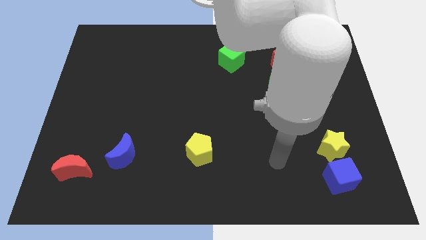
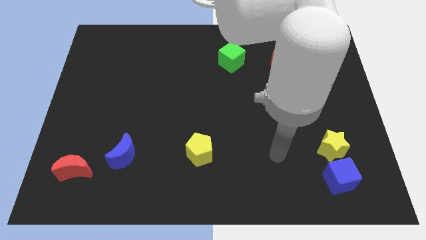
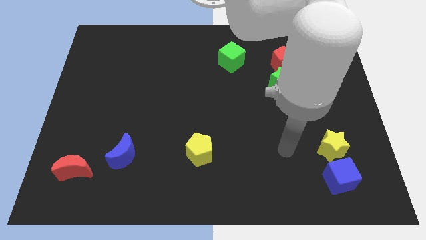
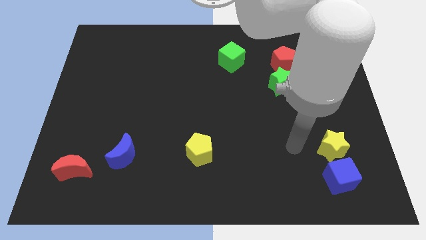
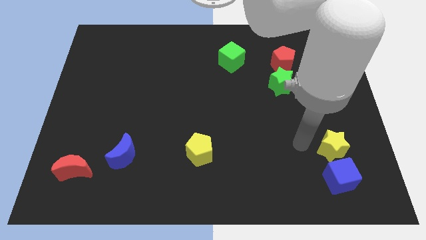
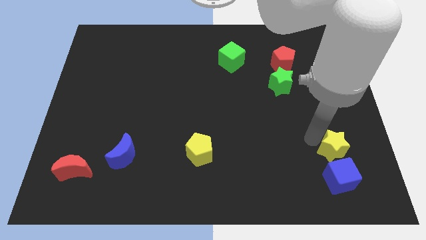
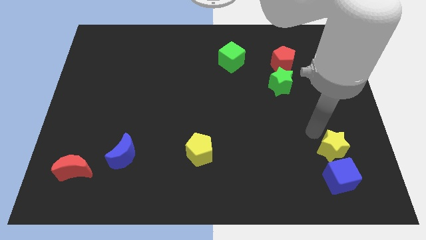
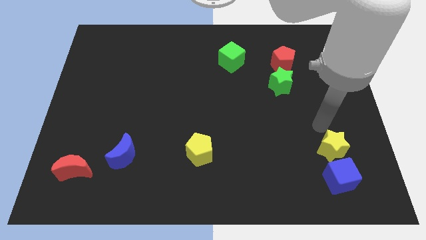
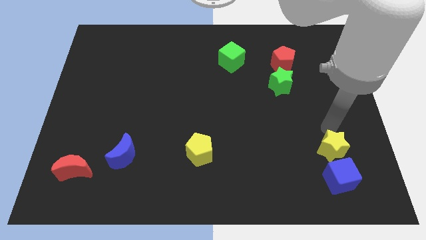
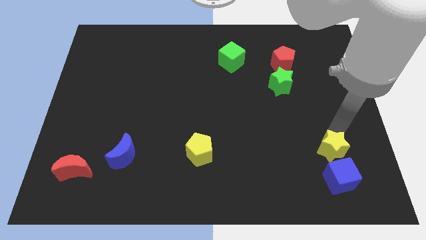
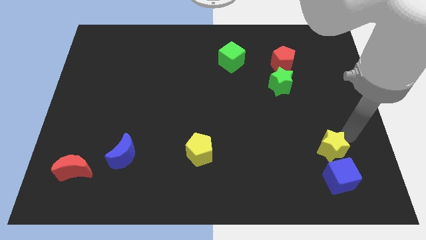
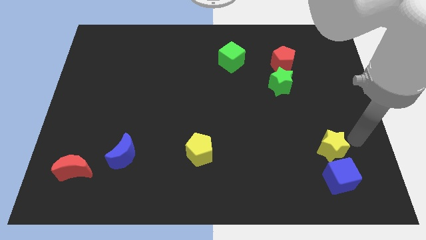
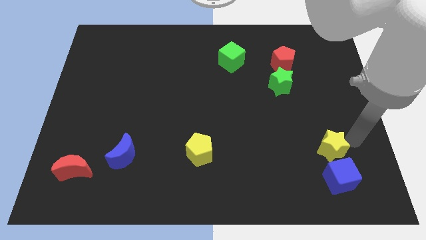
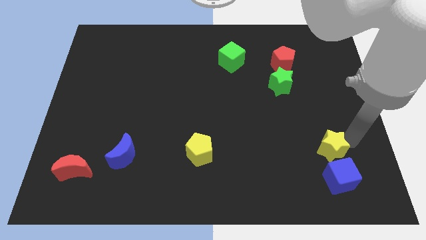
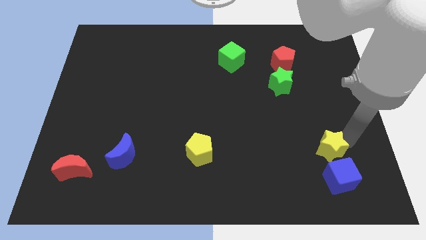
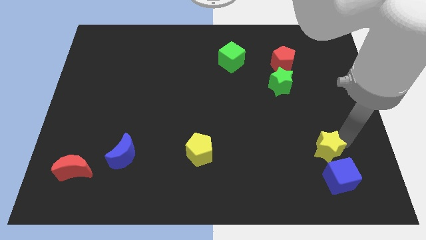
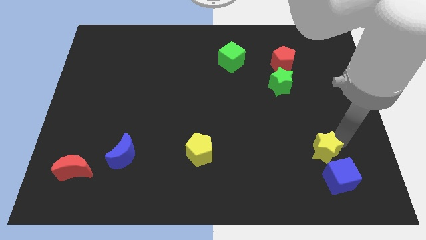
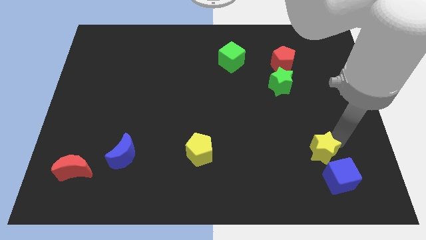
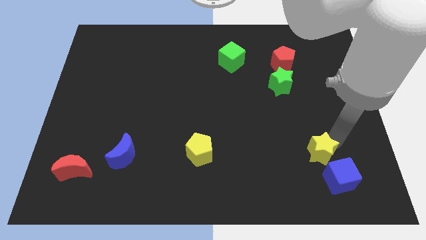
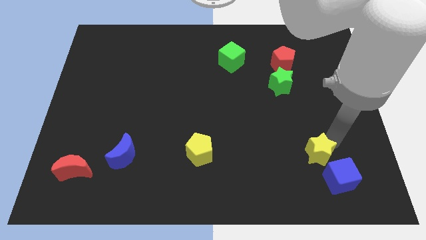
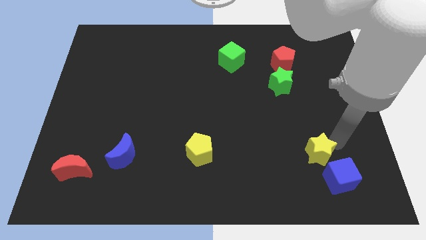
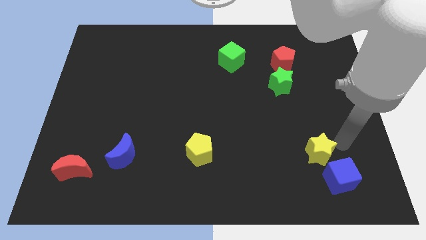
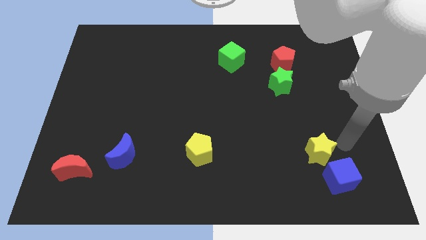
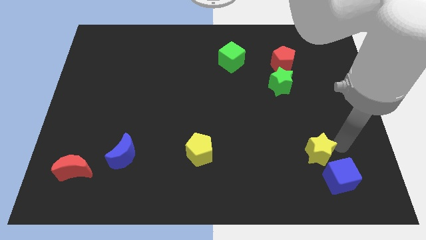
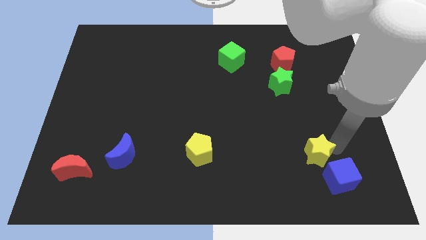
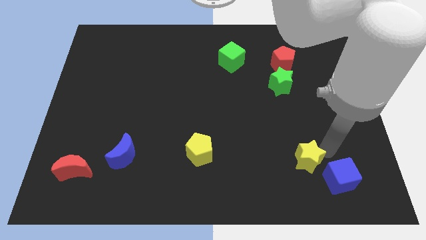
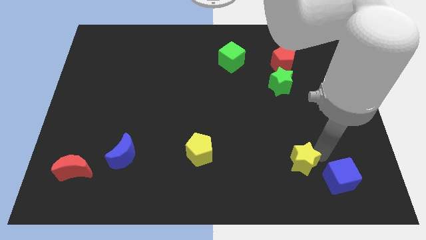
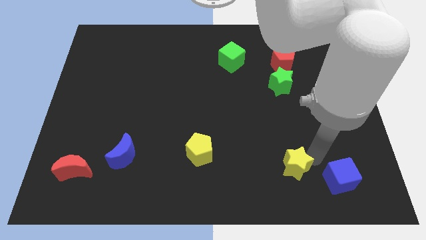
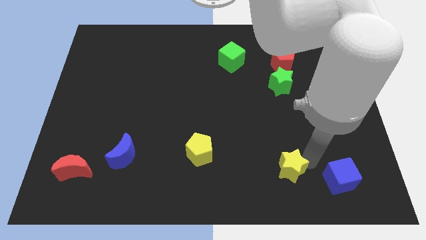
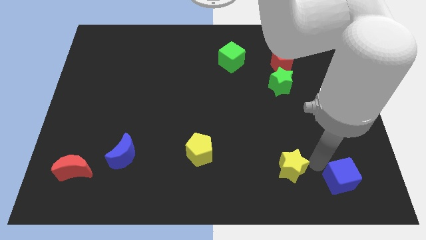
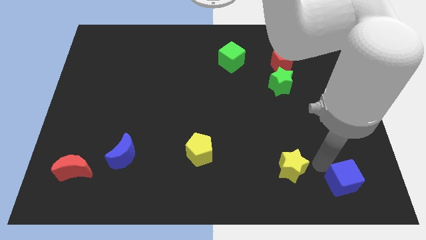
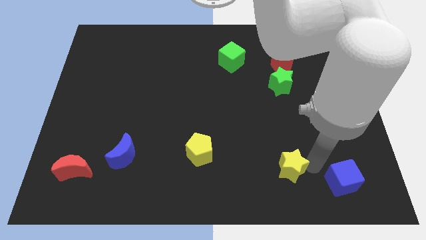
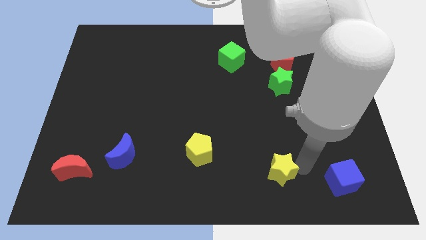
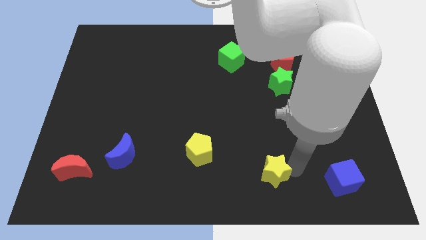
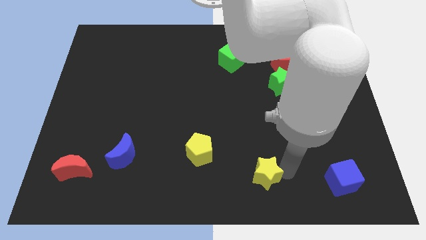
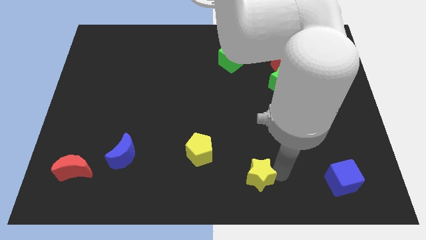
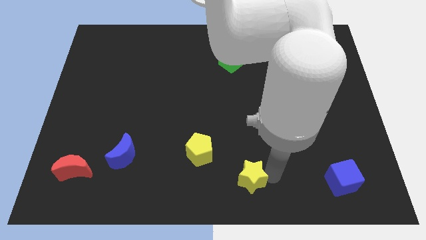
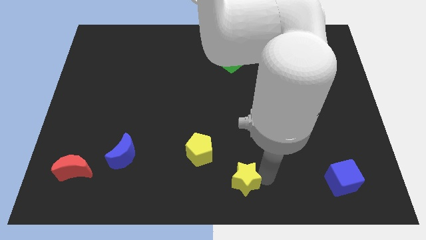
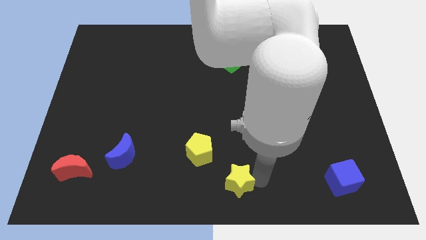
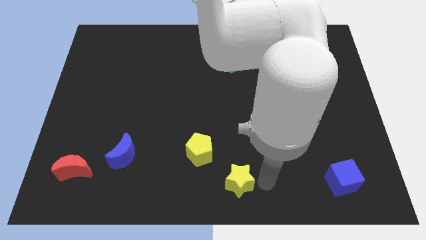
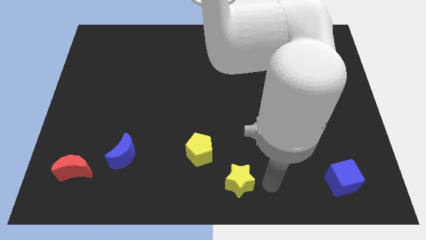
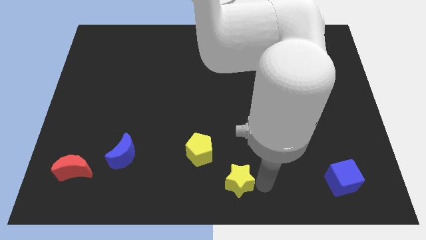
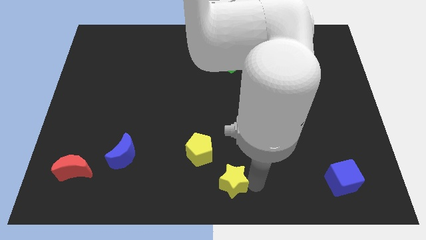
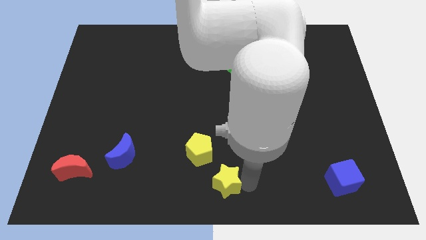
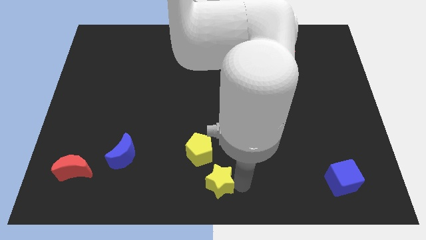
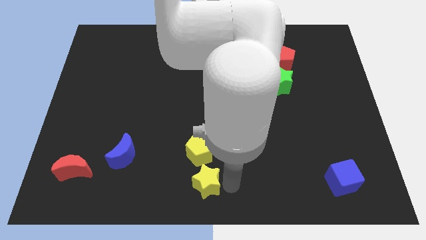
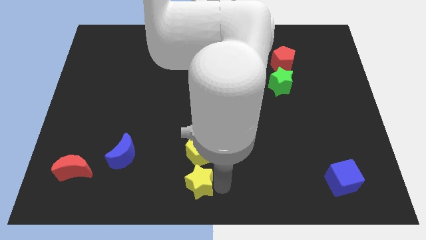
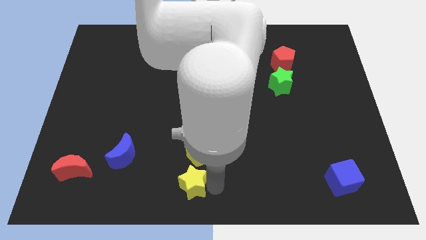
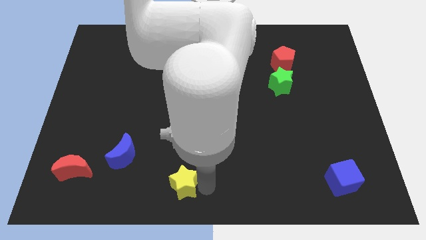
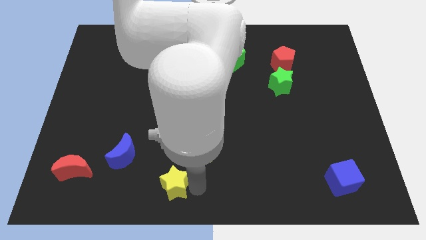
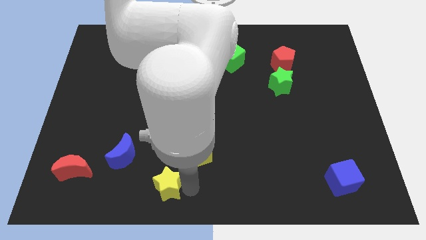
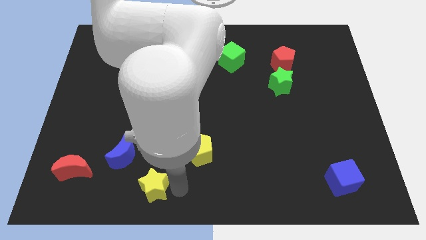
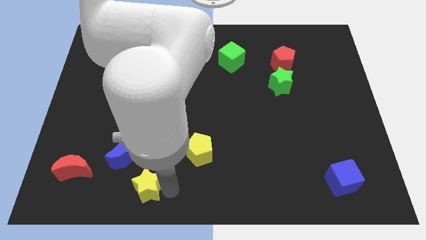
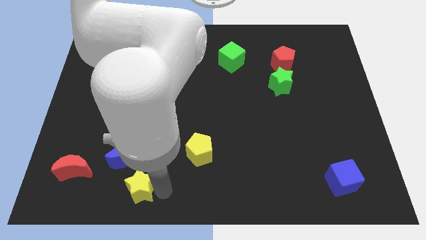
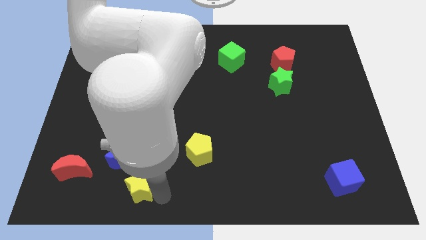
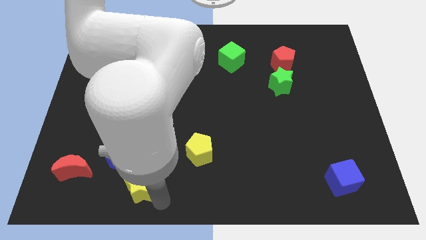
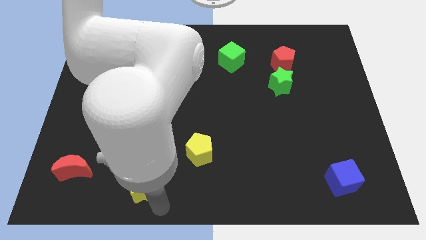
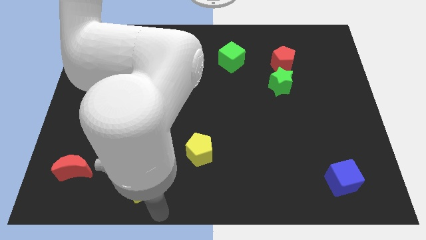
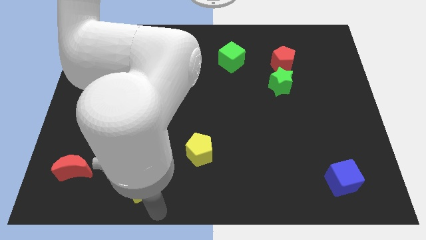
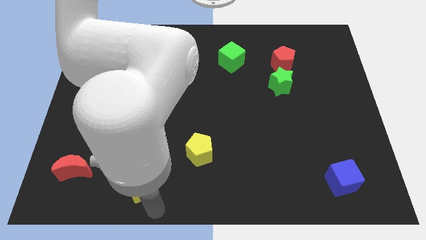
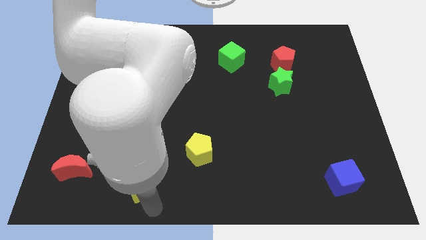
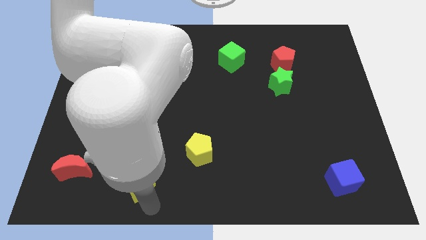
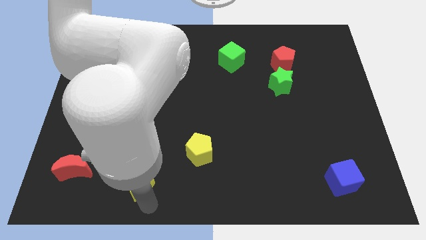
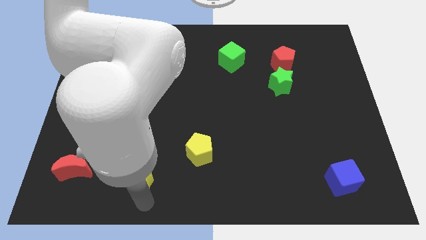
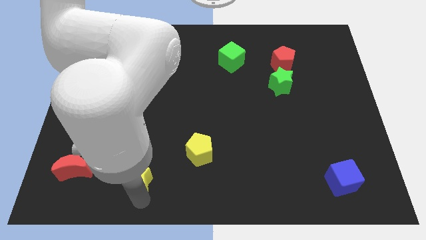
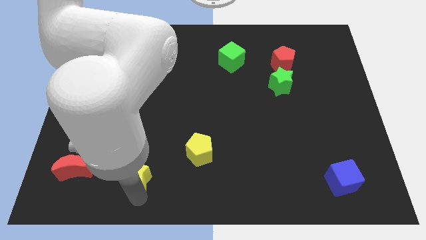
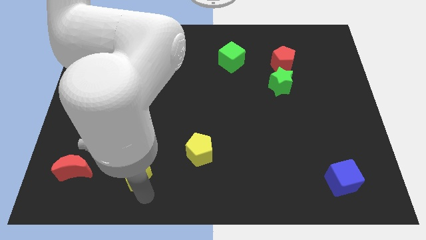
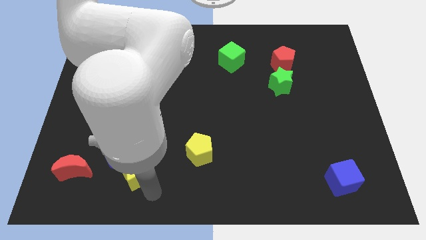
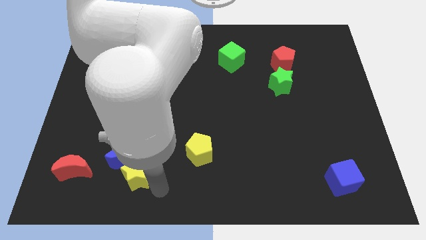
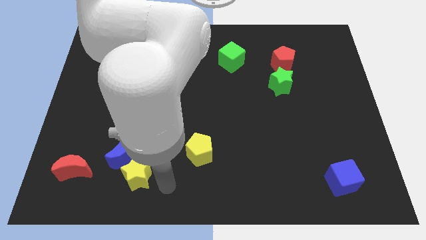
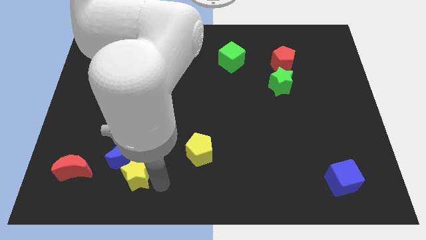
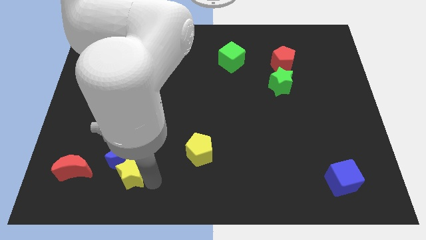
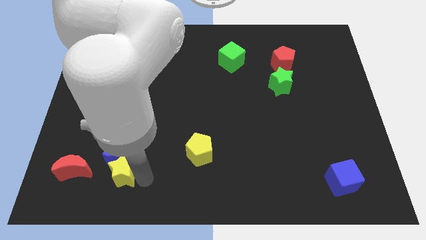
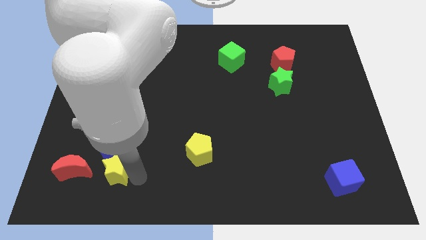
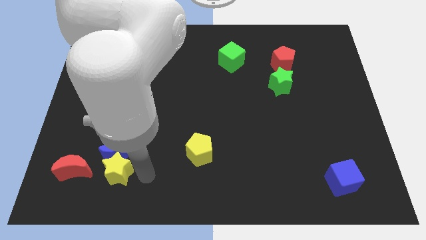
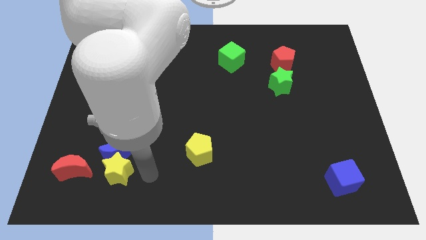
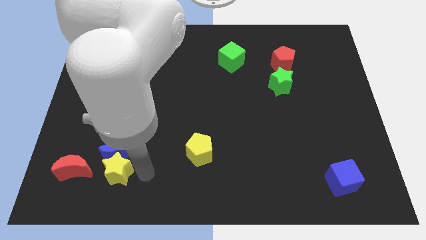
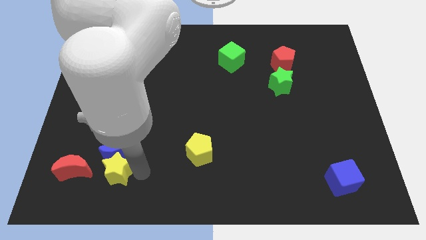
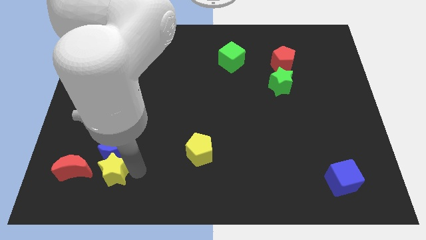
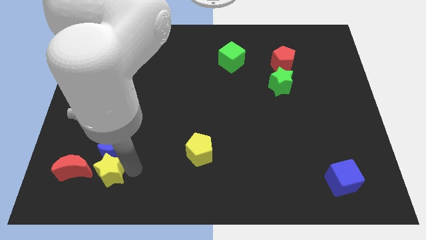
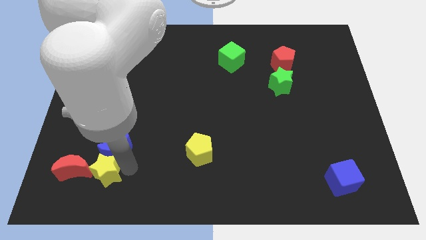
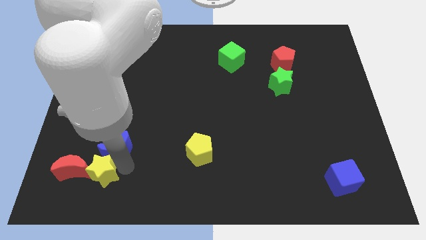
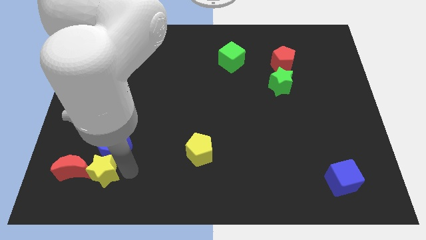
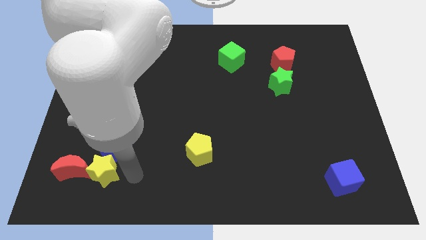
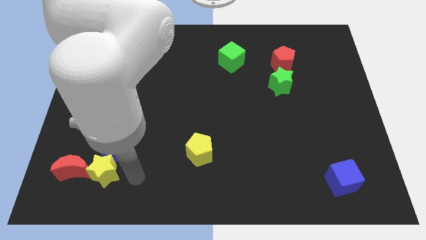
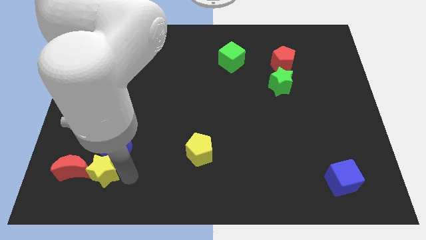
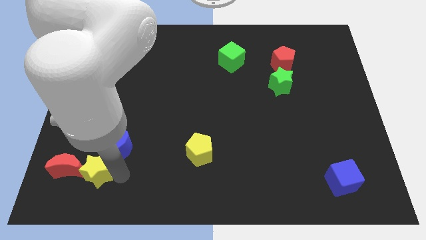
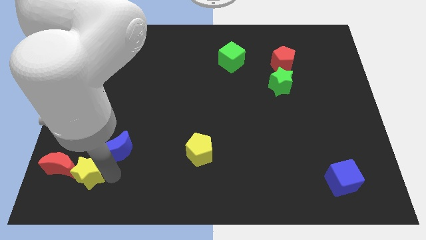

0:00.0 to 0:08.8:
push the yellow star towards the red moon
